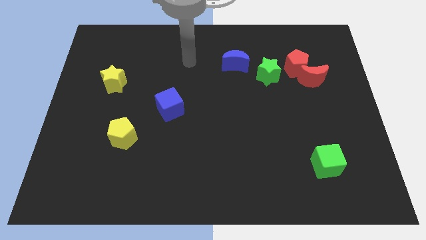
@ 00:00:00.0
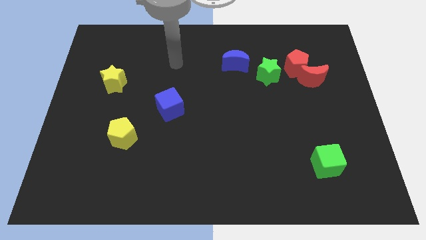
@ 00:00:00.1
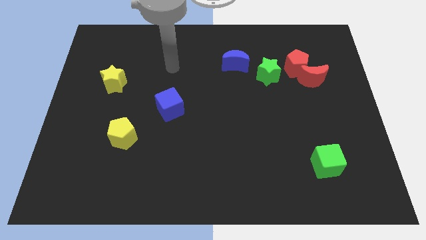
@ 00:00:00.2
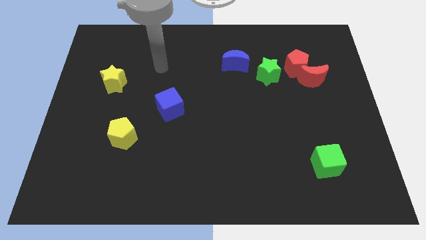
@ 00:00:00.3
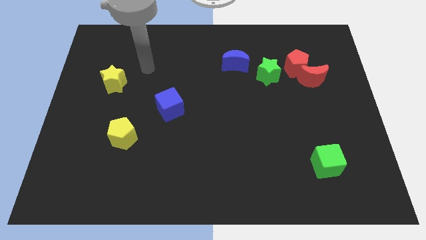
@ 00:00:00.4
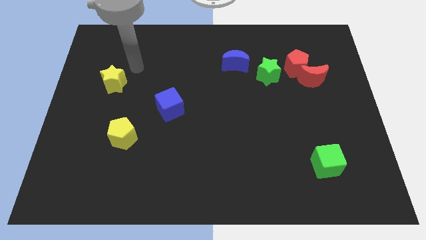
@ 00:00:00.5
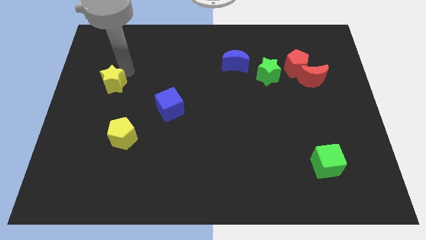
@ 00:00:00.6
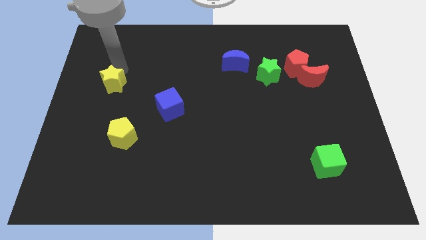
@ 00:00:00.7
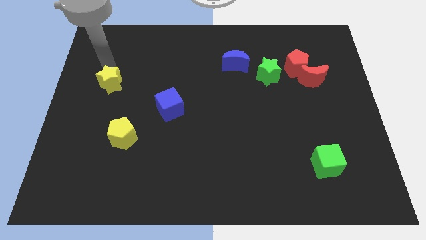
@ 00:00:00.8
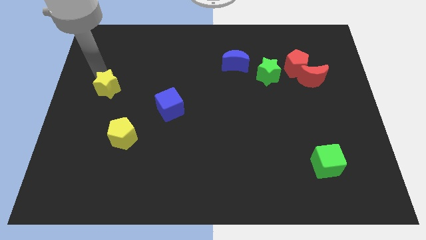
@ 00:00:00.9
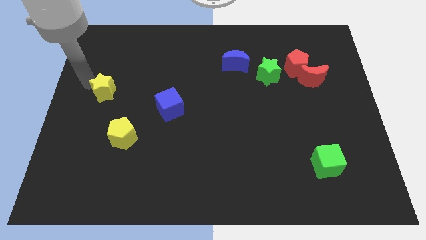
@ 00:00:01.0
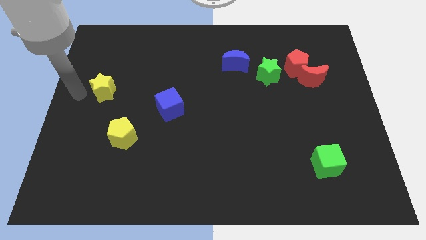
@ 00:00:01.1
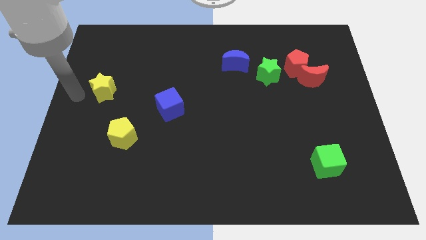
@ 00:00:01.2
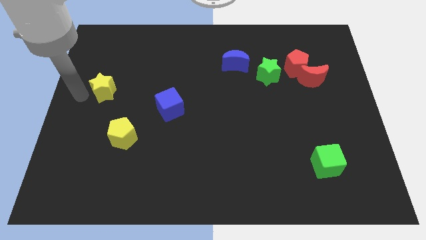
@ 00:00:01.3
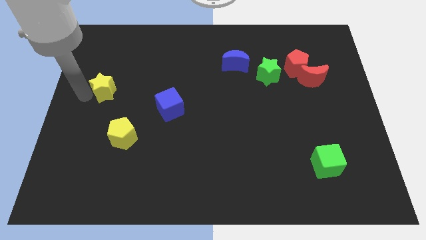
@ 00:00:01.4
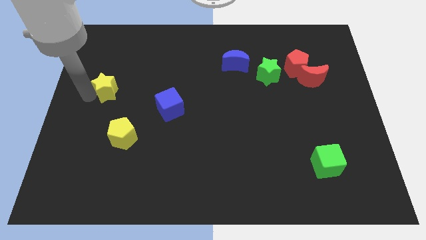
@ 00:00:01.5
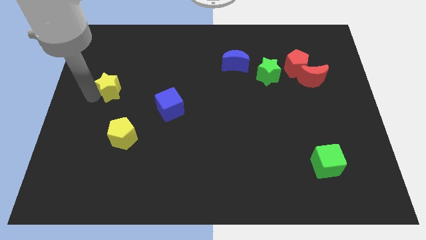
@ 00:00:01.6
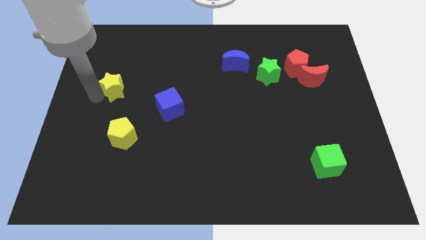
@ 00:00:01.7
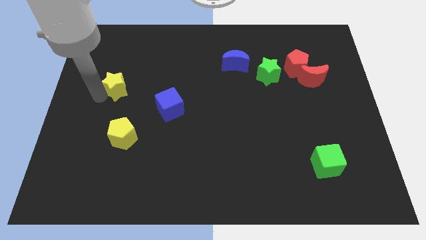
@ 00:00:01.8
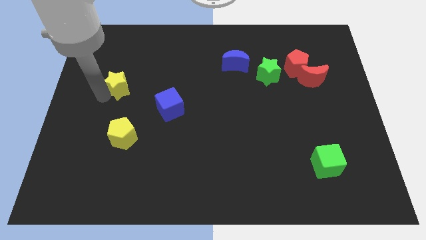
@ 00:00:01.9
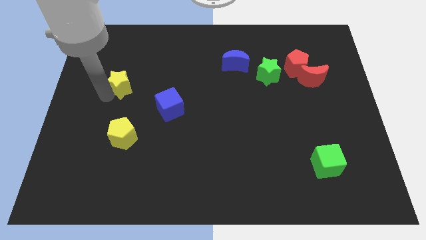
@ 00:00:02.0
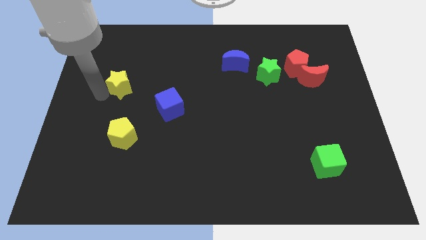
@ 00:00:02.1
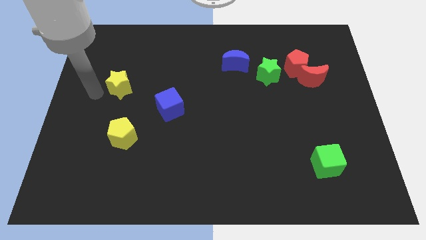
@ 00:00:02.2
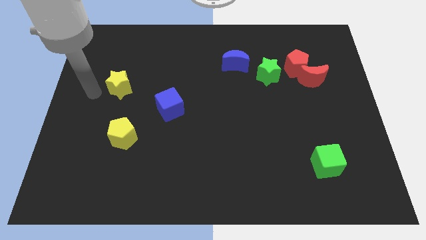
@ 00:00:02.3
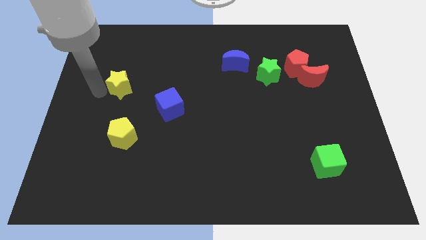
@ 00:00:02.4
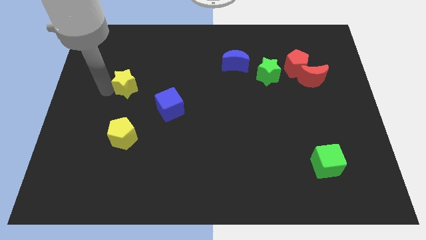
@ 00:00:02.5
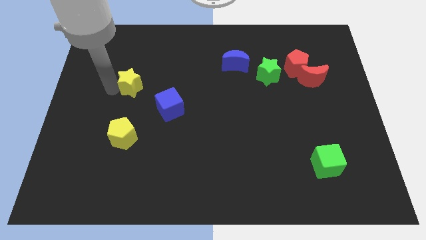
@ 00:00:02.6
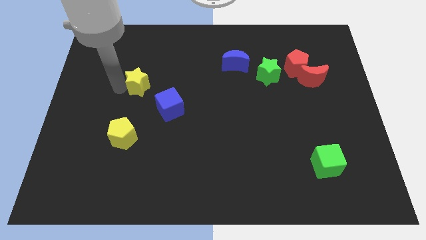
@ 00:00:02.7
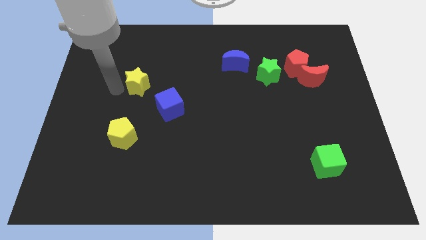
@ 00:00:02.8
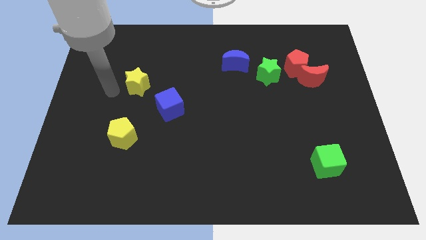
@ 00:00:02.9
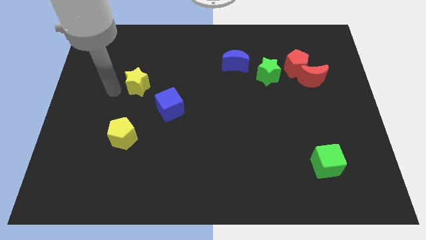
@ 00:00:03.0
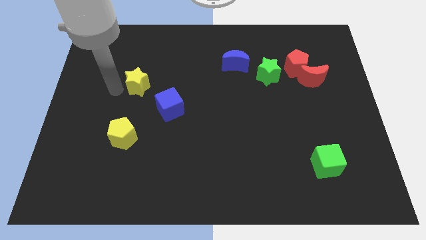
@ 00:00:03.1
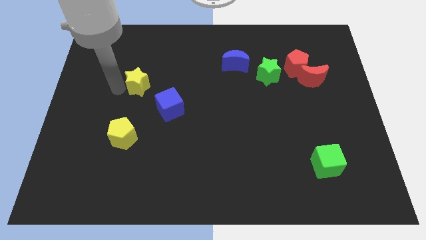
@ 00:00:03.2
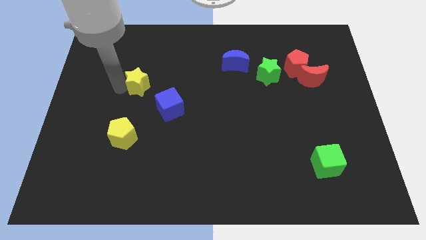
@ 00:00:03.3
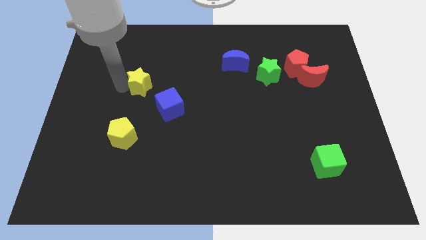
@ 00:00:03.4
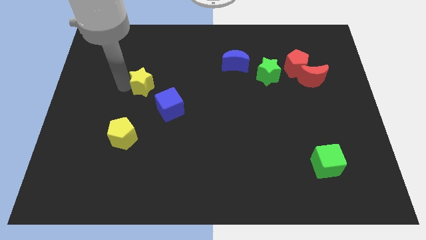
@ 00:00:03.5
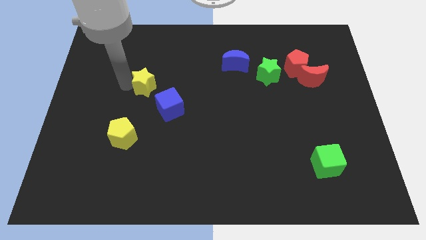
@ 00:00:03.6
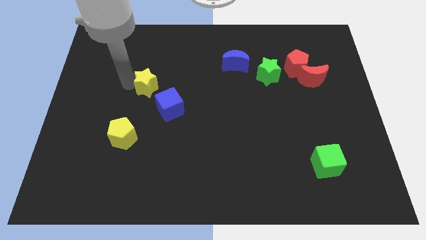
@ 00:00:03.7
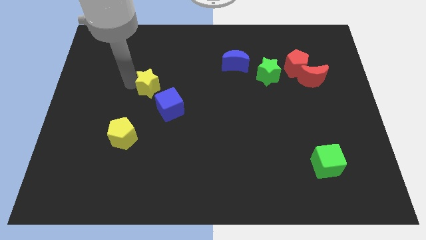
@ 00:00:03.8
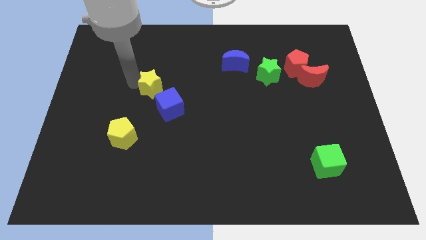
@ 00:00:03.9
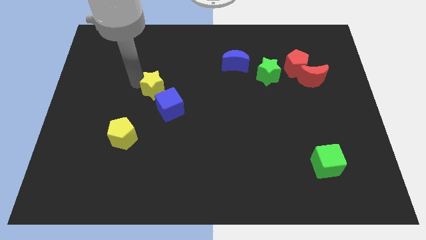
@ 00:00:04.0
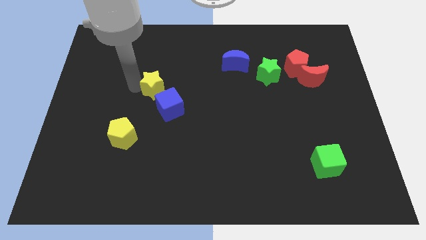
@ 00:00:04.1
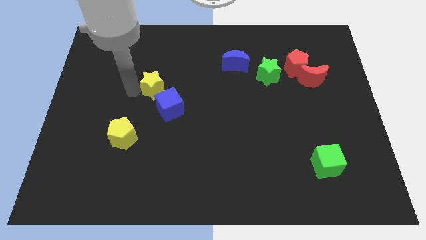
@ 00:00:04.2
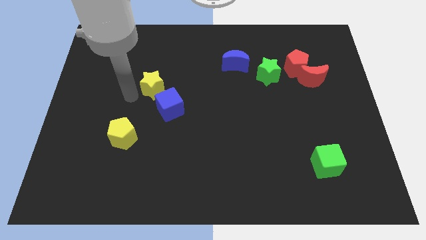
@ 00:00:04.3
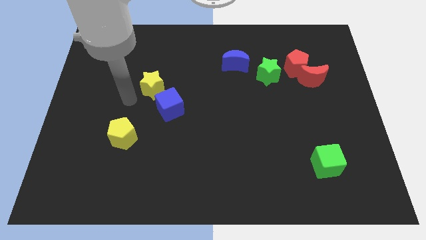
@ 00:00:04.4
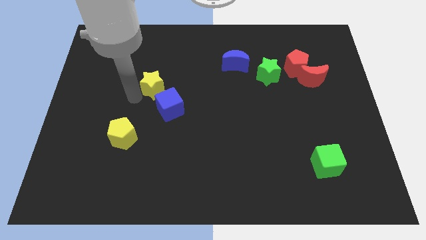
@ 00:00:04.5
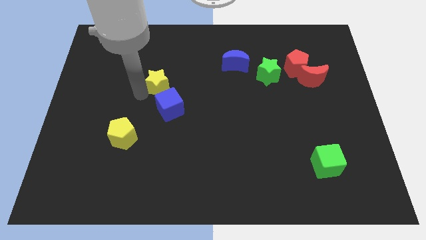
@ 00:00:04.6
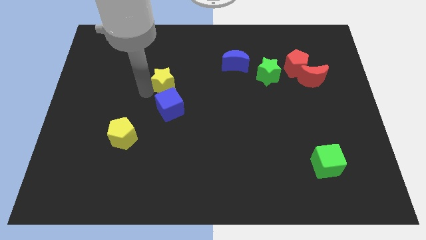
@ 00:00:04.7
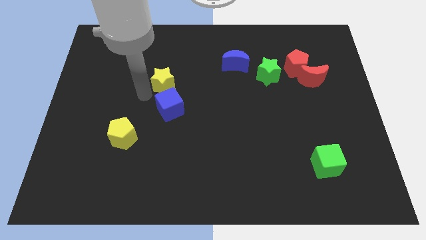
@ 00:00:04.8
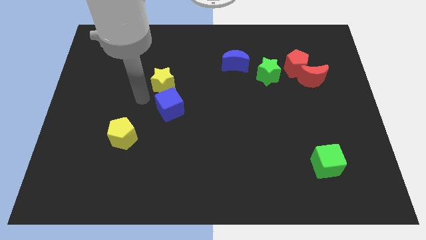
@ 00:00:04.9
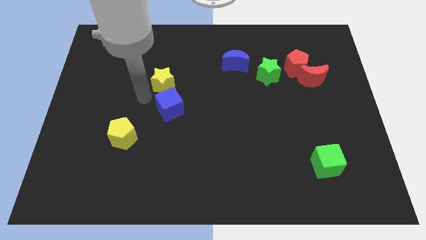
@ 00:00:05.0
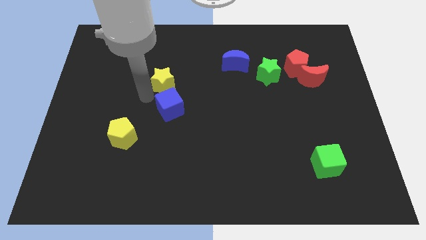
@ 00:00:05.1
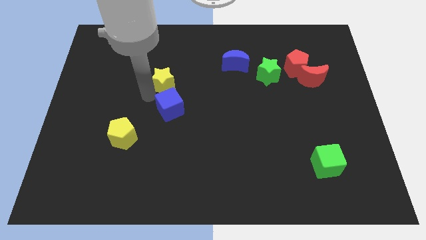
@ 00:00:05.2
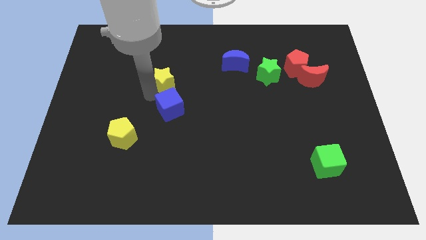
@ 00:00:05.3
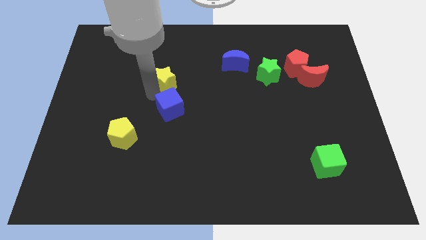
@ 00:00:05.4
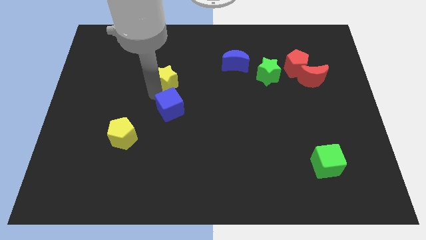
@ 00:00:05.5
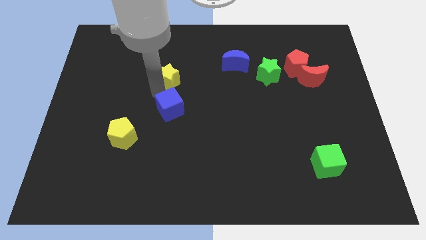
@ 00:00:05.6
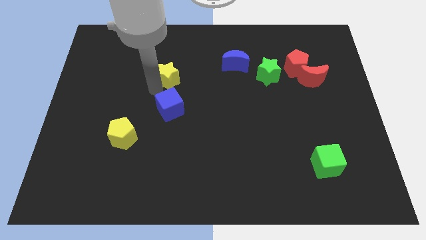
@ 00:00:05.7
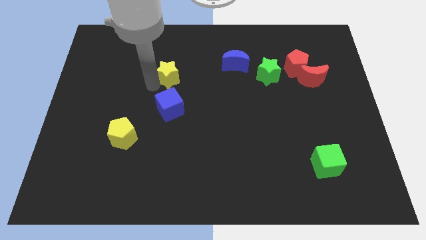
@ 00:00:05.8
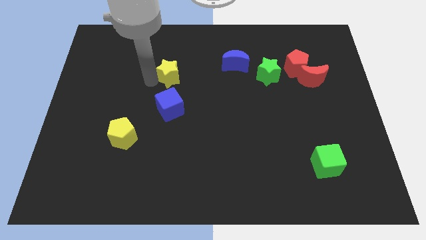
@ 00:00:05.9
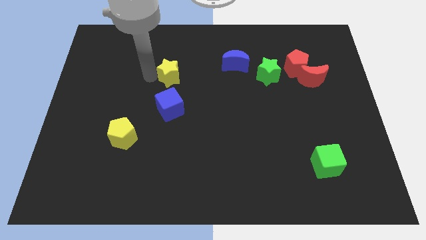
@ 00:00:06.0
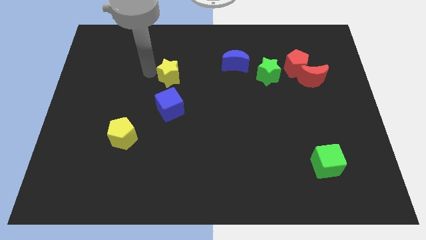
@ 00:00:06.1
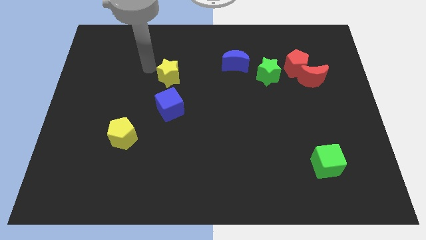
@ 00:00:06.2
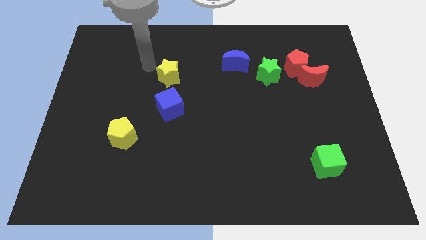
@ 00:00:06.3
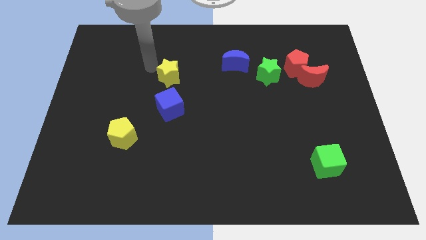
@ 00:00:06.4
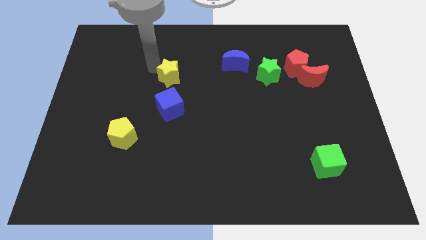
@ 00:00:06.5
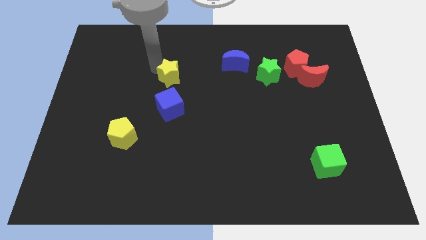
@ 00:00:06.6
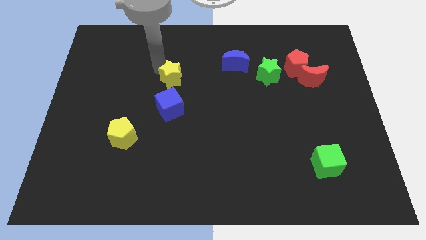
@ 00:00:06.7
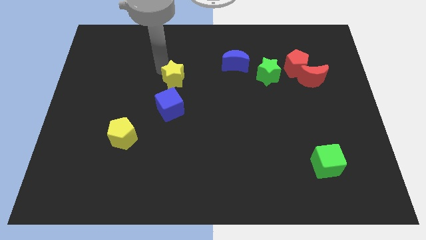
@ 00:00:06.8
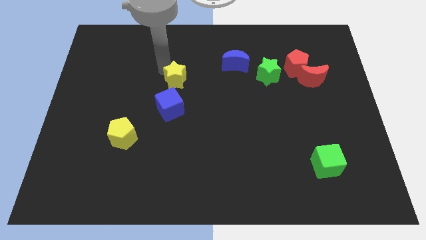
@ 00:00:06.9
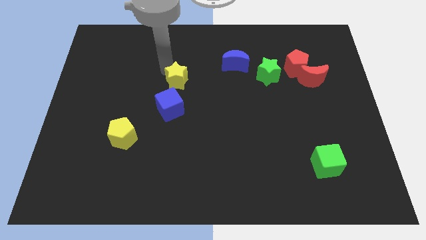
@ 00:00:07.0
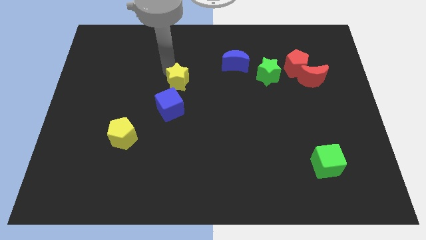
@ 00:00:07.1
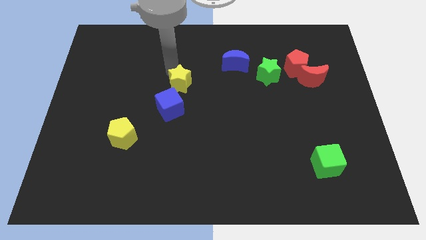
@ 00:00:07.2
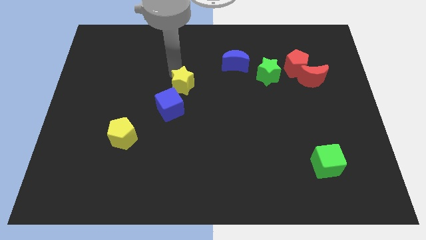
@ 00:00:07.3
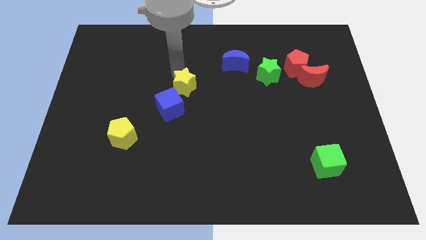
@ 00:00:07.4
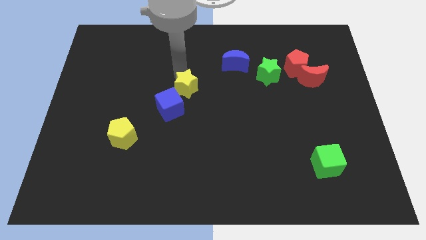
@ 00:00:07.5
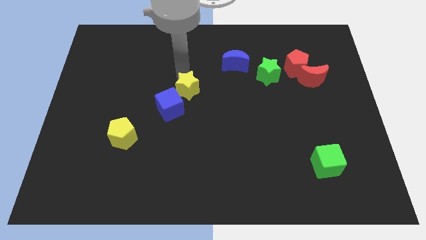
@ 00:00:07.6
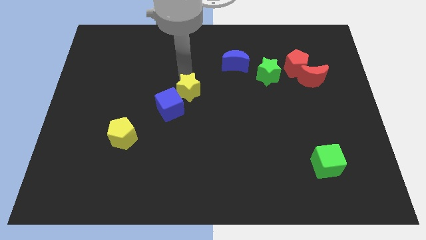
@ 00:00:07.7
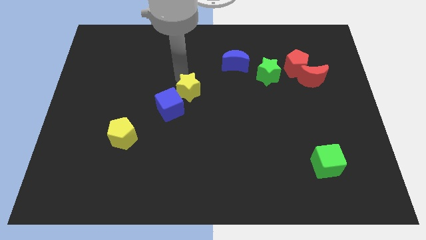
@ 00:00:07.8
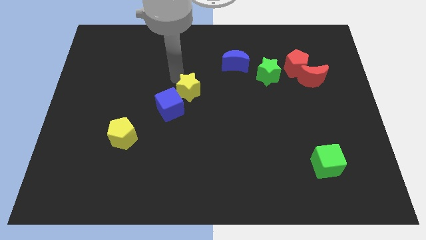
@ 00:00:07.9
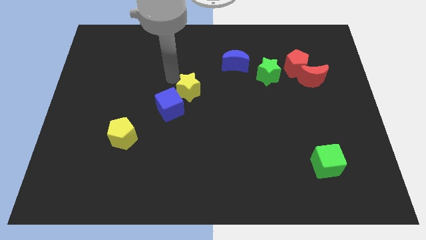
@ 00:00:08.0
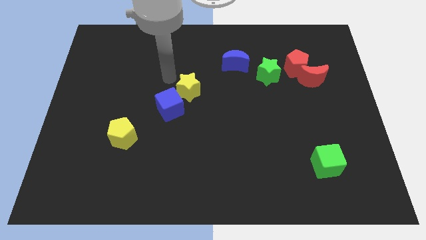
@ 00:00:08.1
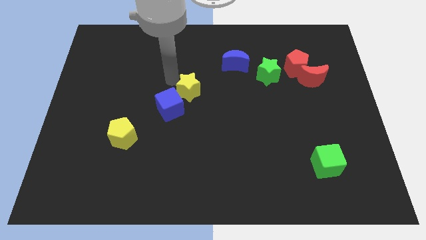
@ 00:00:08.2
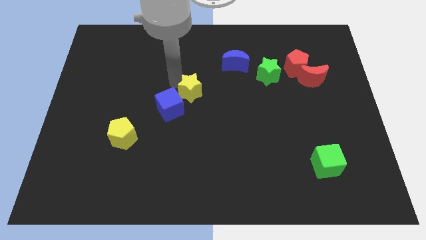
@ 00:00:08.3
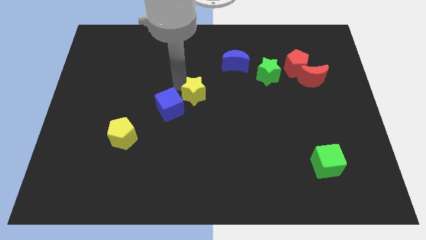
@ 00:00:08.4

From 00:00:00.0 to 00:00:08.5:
slide the yellow star to the right side of the blue cube
